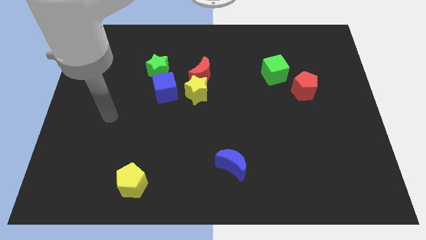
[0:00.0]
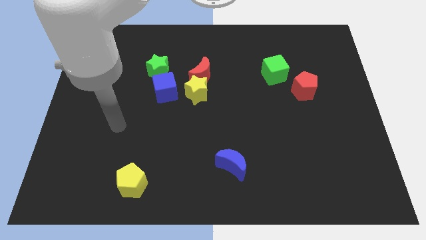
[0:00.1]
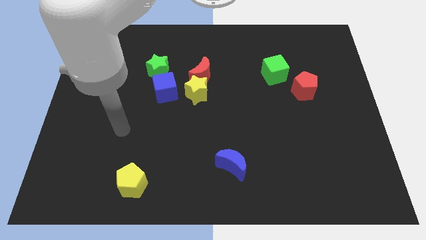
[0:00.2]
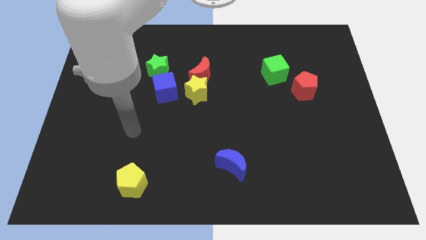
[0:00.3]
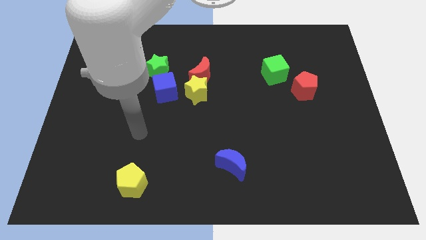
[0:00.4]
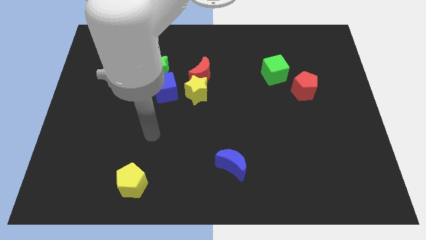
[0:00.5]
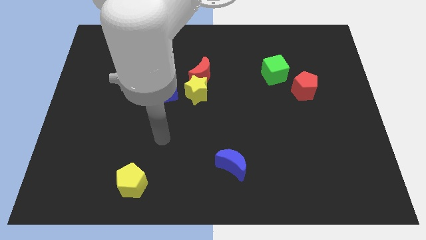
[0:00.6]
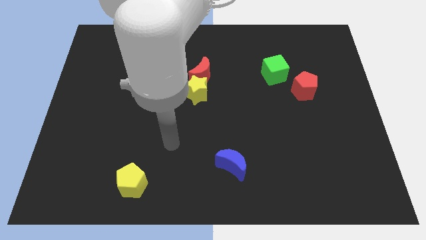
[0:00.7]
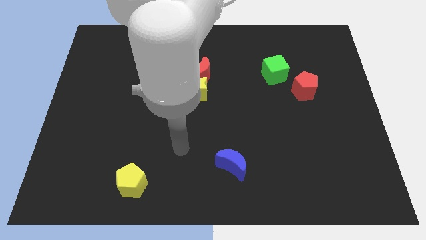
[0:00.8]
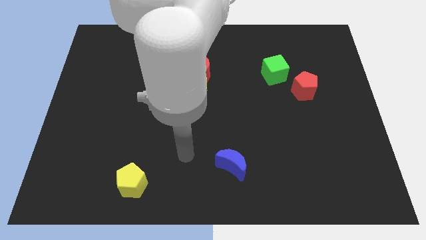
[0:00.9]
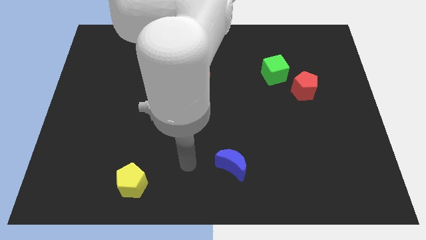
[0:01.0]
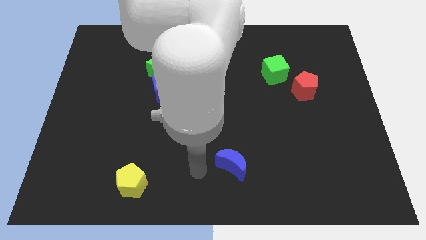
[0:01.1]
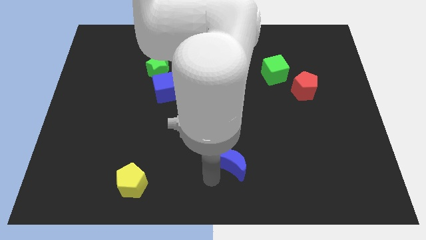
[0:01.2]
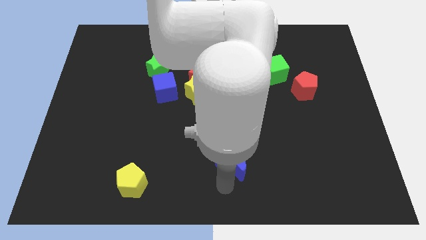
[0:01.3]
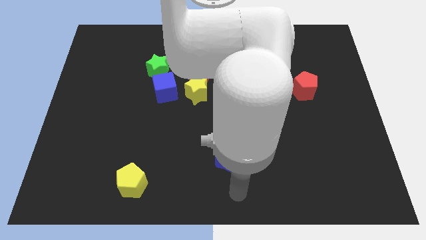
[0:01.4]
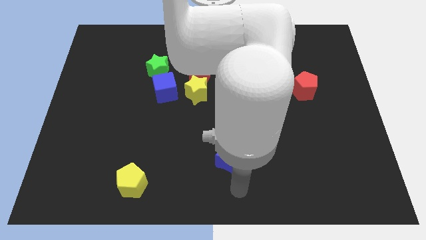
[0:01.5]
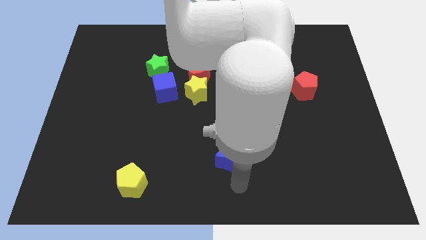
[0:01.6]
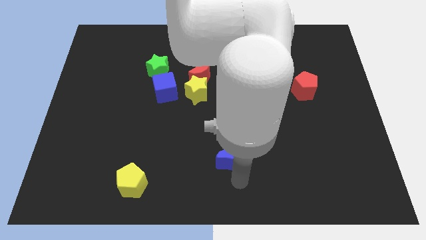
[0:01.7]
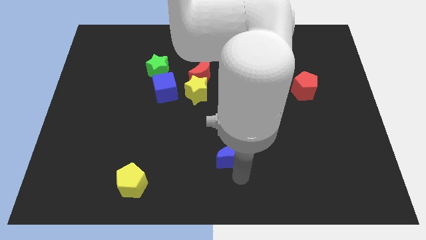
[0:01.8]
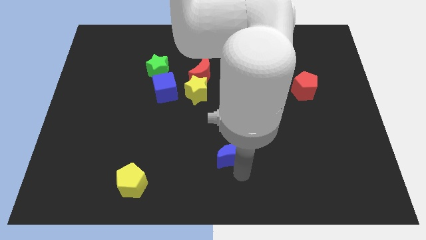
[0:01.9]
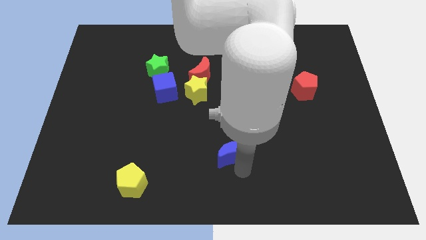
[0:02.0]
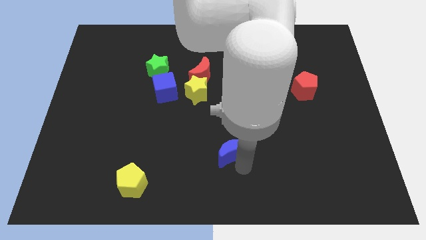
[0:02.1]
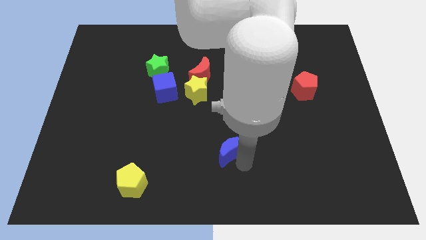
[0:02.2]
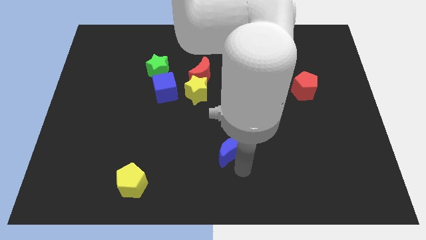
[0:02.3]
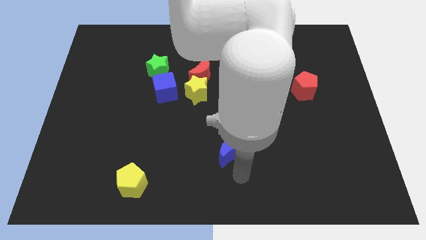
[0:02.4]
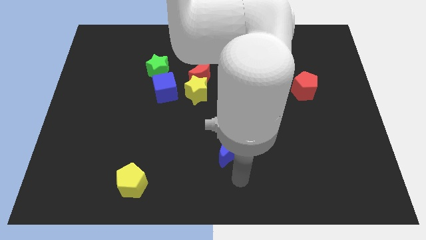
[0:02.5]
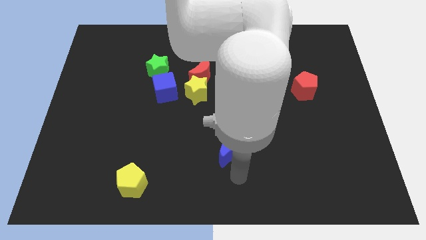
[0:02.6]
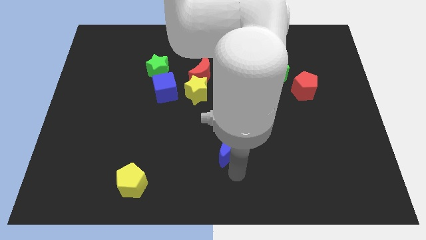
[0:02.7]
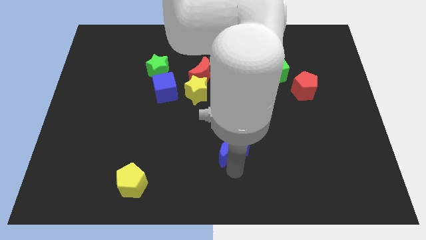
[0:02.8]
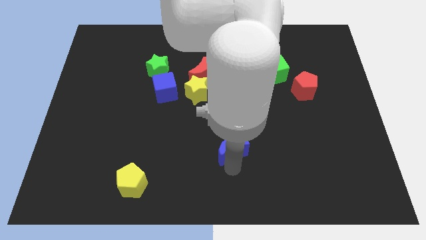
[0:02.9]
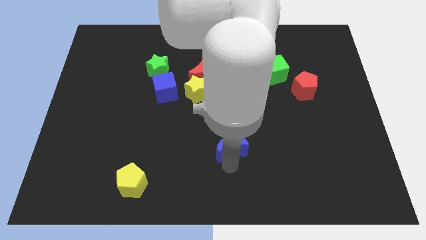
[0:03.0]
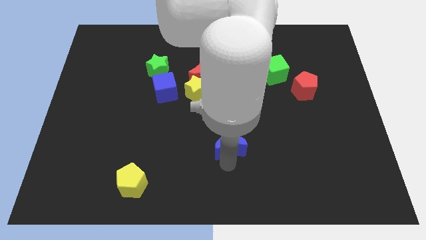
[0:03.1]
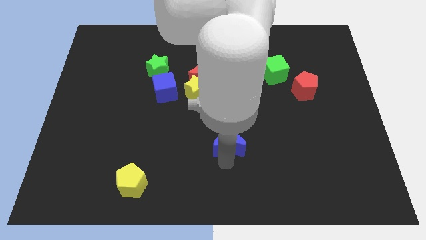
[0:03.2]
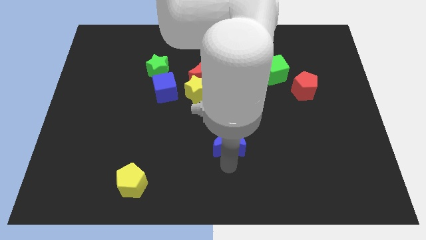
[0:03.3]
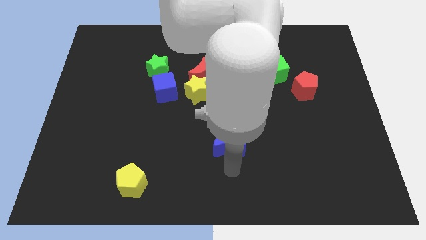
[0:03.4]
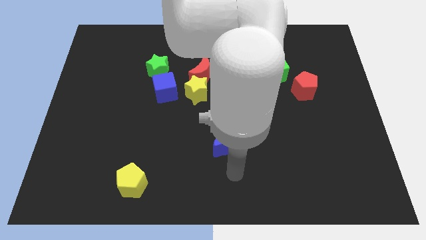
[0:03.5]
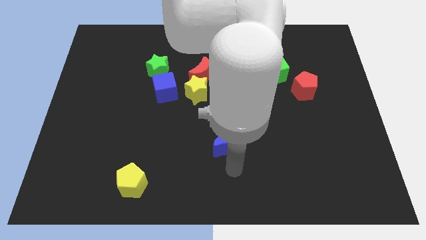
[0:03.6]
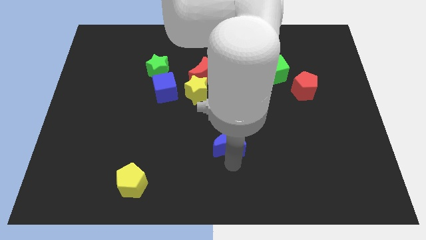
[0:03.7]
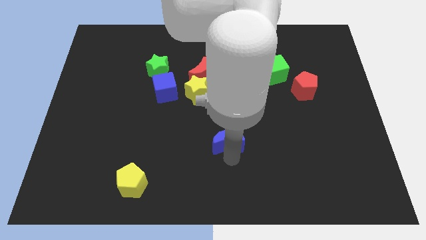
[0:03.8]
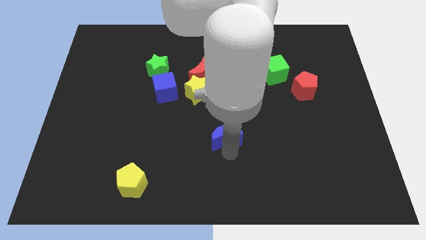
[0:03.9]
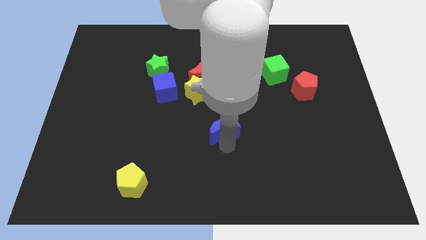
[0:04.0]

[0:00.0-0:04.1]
slide the blue moon somewhat up

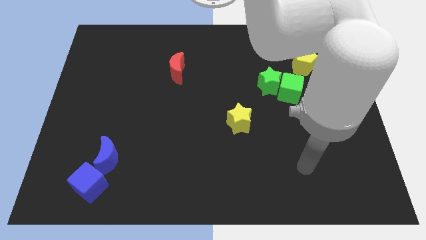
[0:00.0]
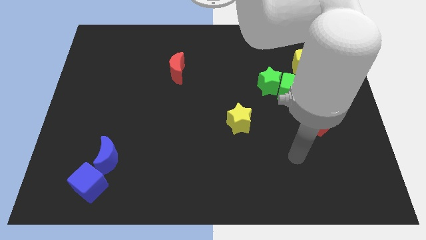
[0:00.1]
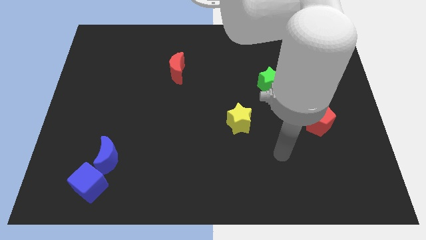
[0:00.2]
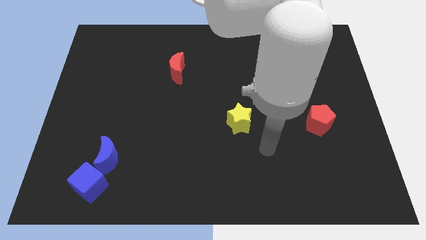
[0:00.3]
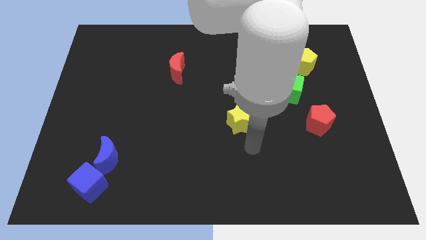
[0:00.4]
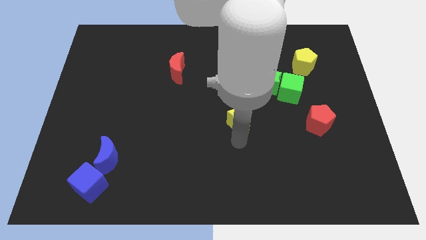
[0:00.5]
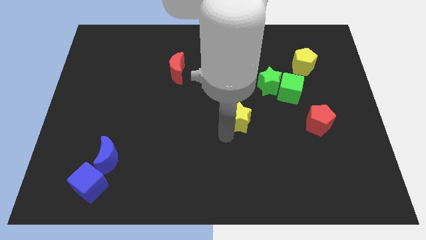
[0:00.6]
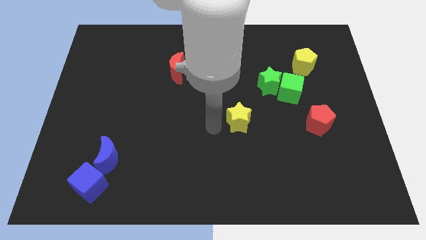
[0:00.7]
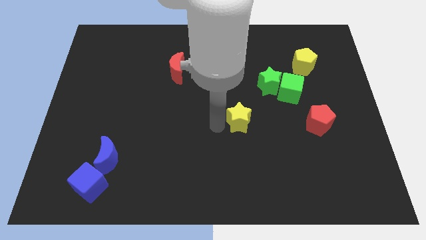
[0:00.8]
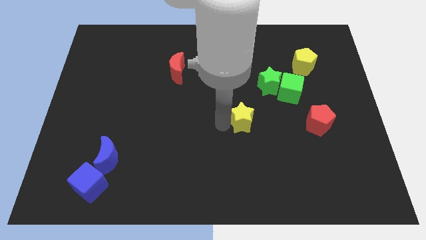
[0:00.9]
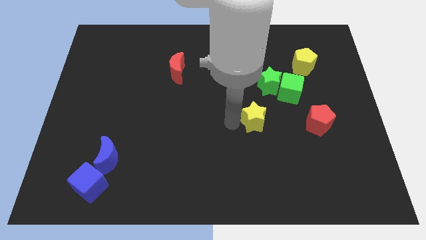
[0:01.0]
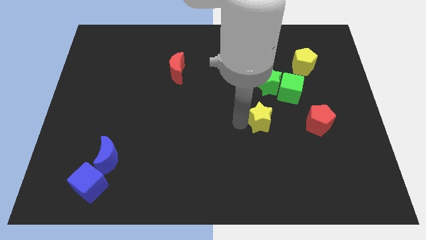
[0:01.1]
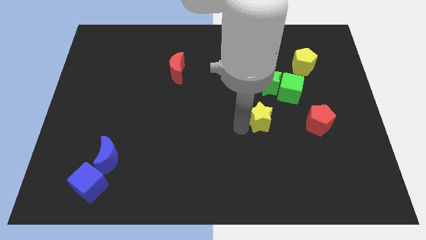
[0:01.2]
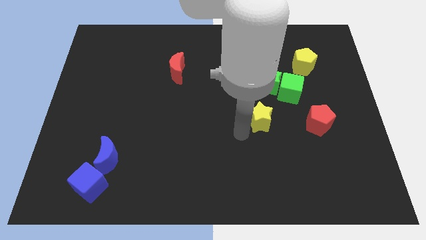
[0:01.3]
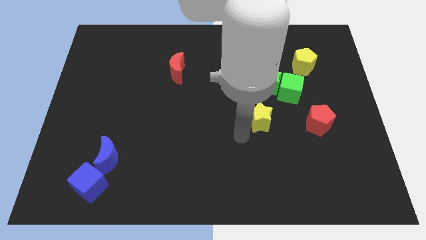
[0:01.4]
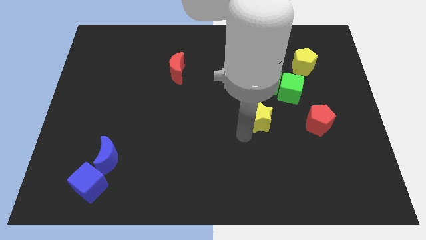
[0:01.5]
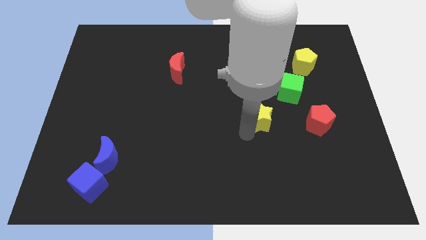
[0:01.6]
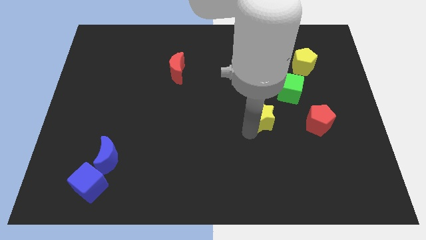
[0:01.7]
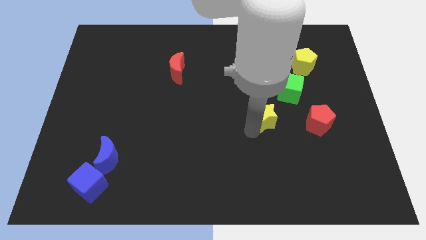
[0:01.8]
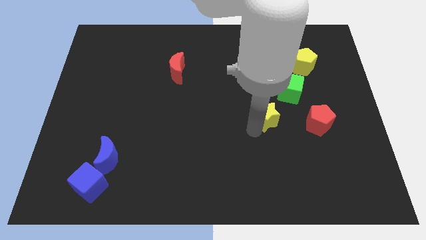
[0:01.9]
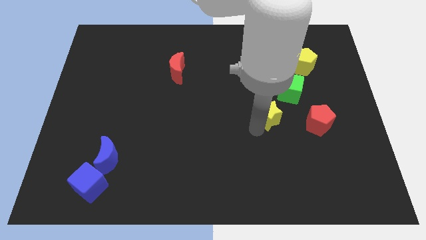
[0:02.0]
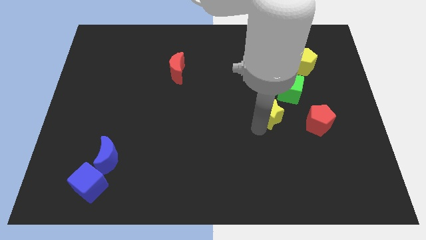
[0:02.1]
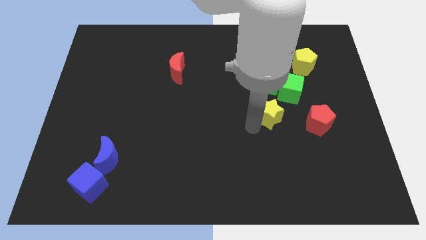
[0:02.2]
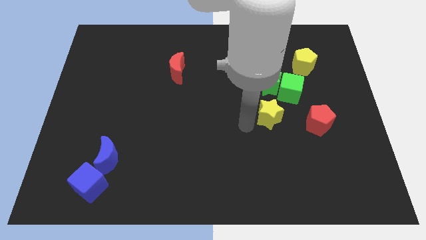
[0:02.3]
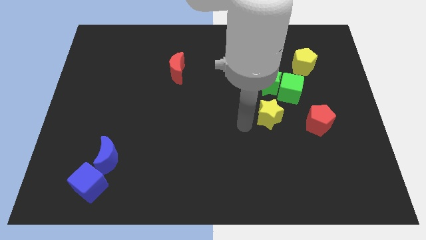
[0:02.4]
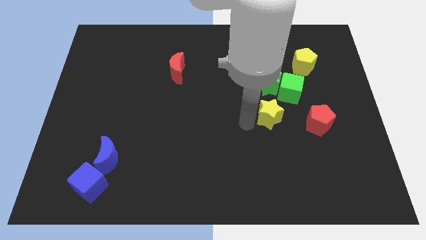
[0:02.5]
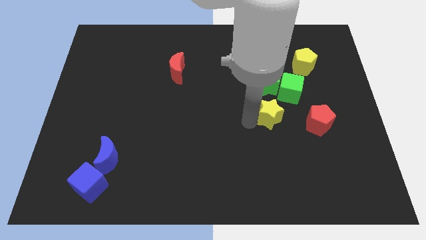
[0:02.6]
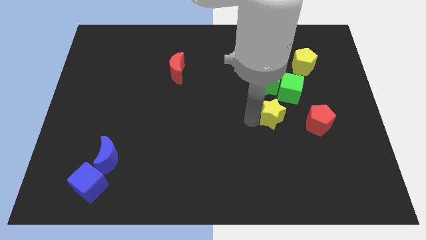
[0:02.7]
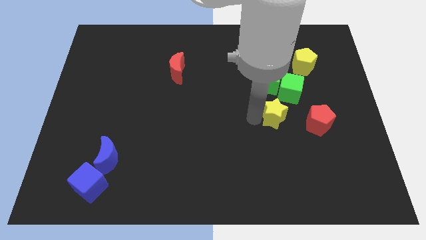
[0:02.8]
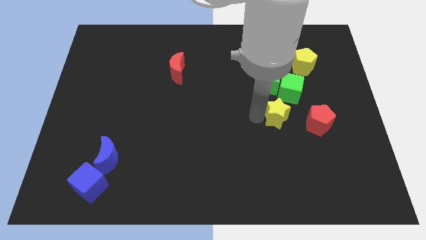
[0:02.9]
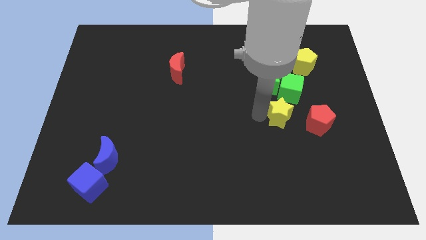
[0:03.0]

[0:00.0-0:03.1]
slightly push the yellow star up and then to the right

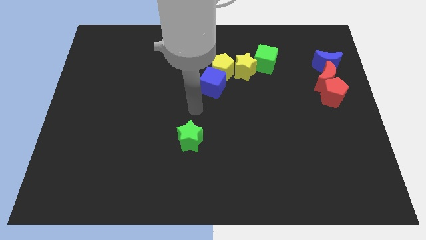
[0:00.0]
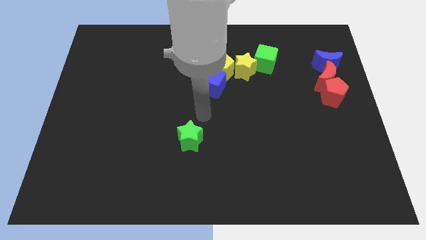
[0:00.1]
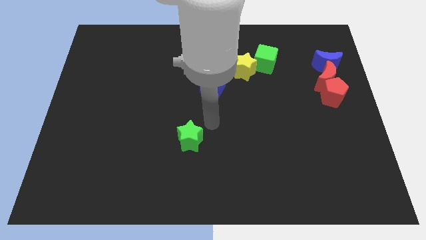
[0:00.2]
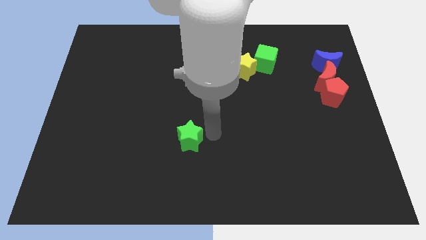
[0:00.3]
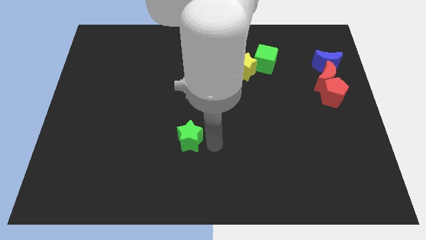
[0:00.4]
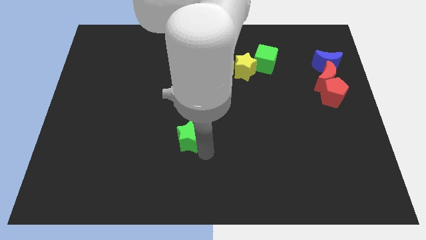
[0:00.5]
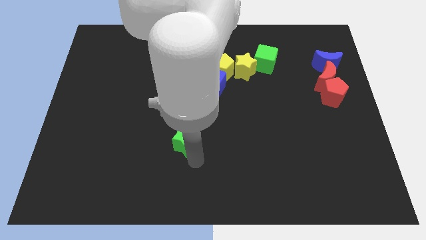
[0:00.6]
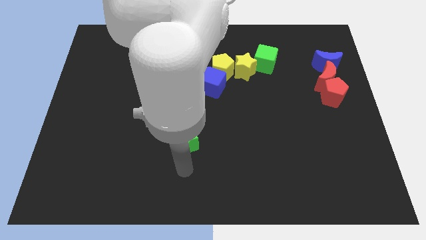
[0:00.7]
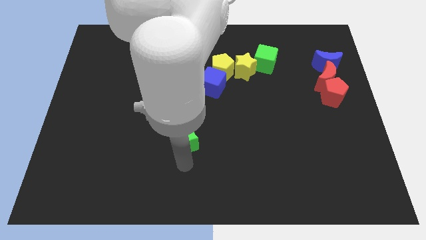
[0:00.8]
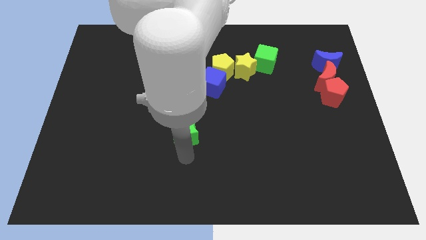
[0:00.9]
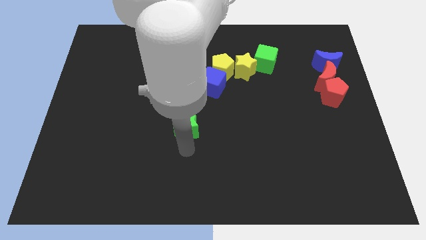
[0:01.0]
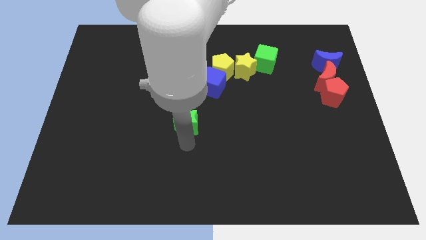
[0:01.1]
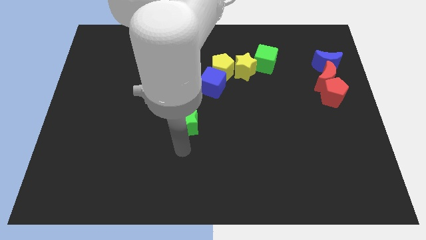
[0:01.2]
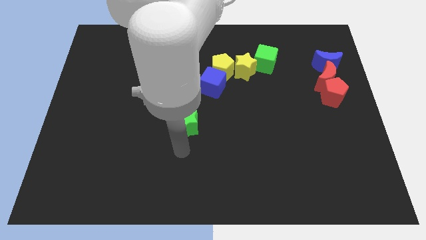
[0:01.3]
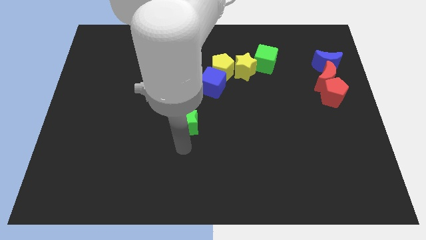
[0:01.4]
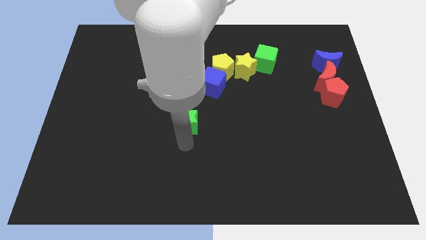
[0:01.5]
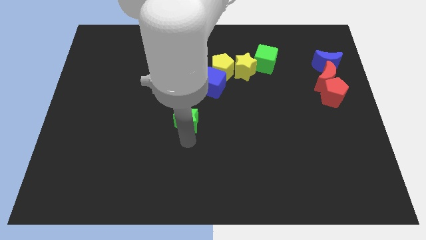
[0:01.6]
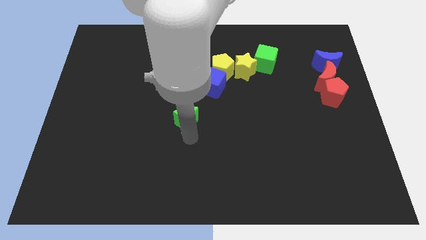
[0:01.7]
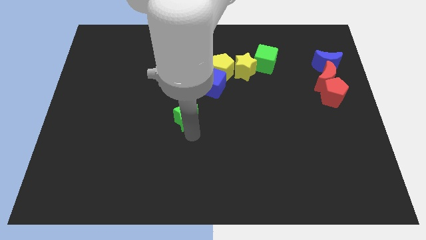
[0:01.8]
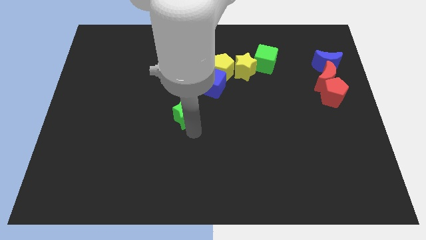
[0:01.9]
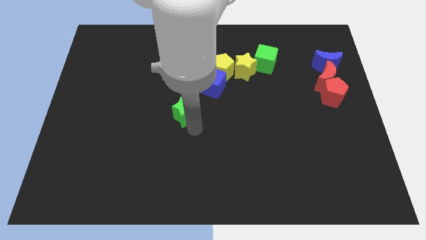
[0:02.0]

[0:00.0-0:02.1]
slightly move the green star upwards
